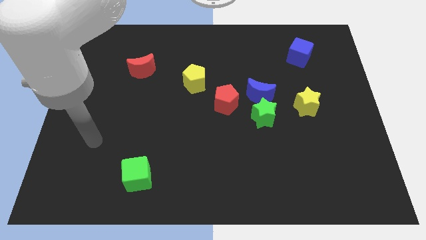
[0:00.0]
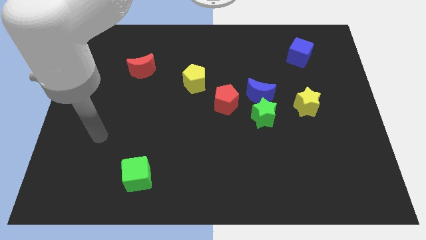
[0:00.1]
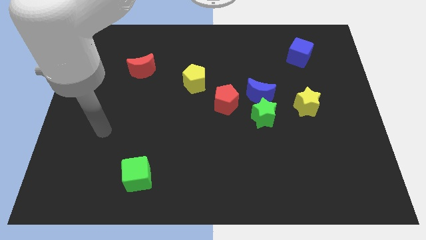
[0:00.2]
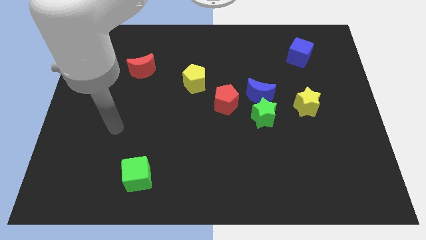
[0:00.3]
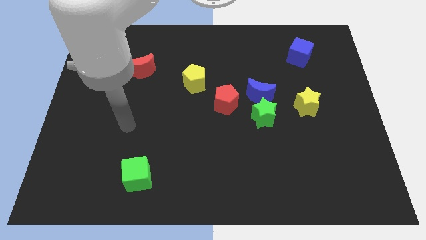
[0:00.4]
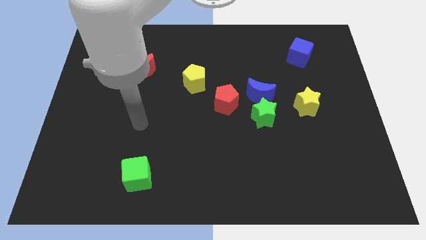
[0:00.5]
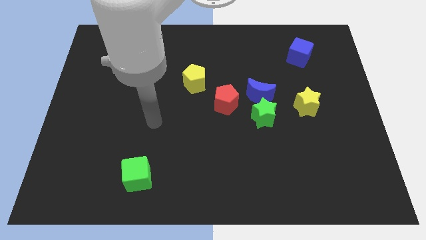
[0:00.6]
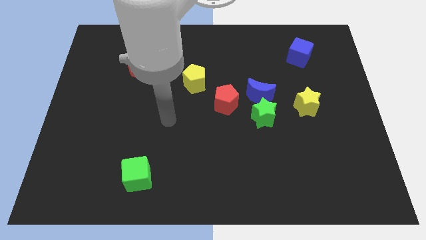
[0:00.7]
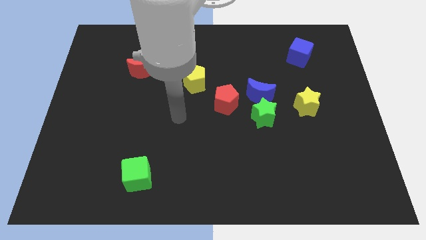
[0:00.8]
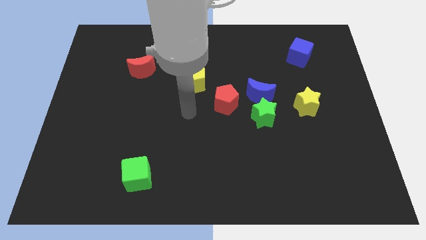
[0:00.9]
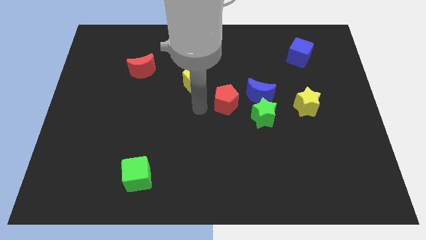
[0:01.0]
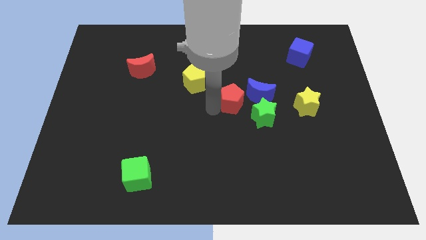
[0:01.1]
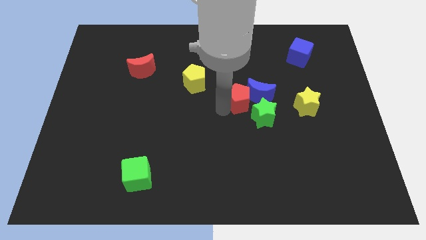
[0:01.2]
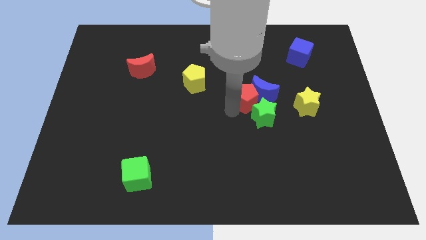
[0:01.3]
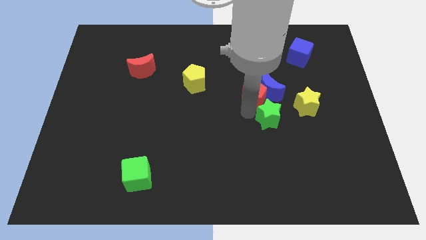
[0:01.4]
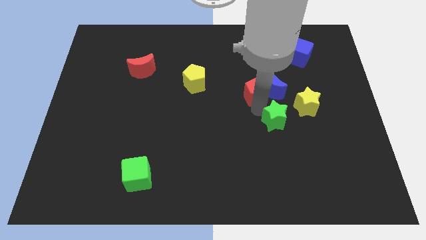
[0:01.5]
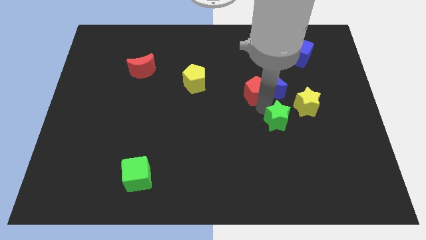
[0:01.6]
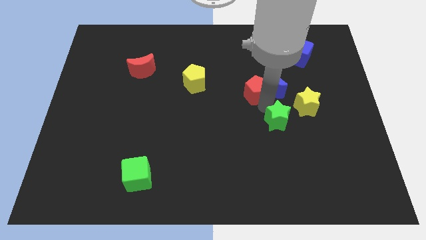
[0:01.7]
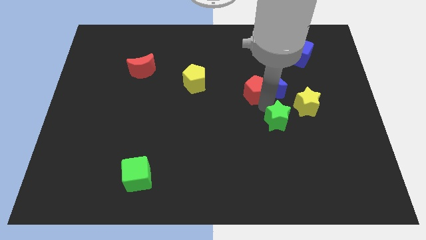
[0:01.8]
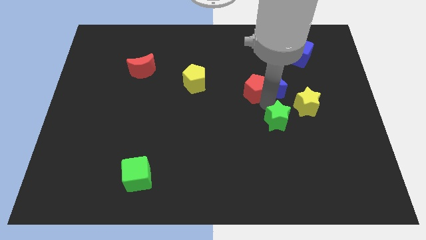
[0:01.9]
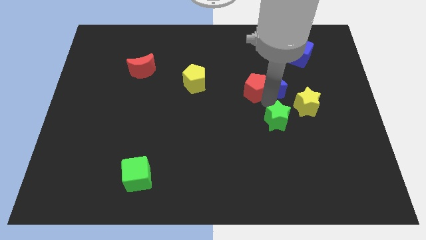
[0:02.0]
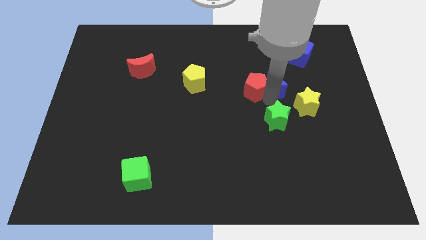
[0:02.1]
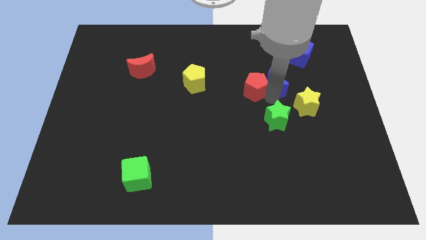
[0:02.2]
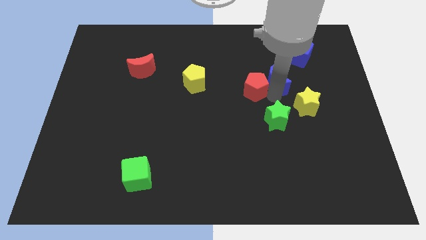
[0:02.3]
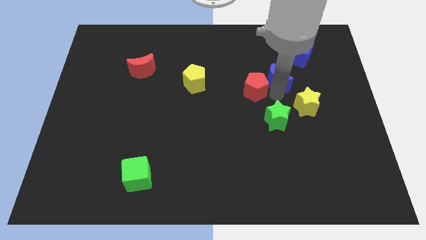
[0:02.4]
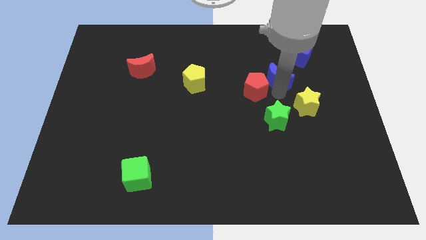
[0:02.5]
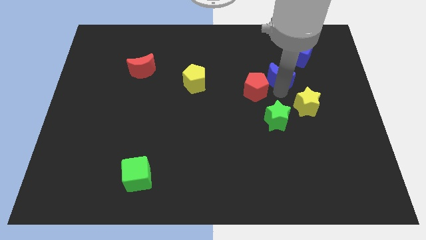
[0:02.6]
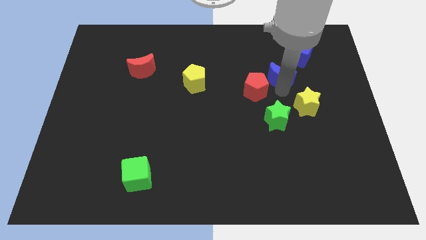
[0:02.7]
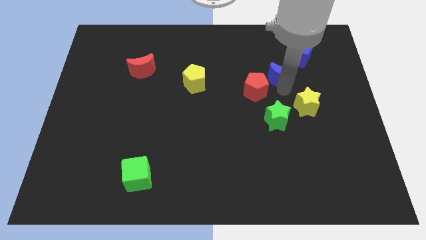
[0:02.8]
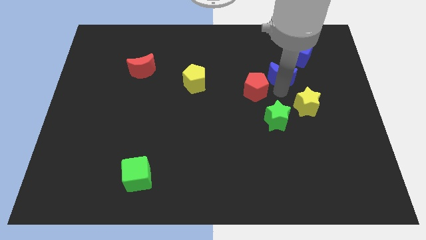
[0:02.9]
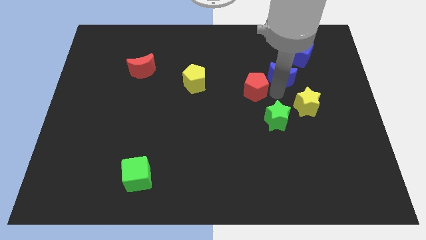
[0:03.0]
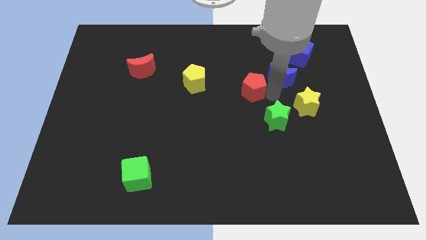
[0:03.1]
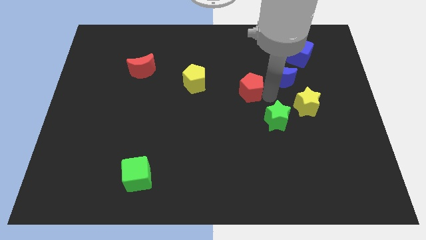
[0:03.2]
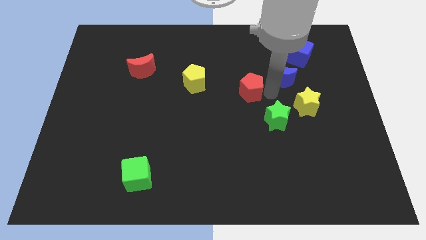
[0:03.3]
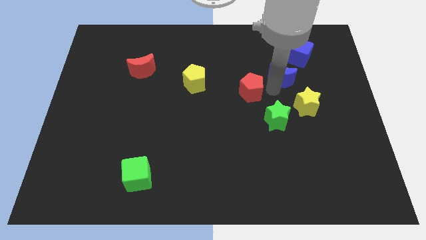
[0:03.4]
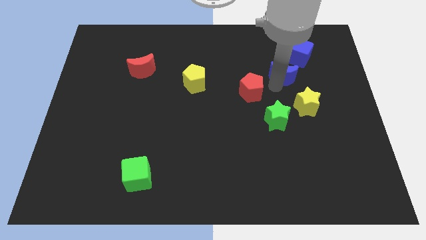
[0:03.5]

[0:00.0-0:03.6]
move the blue moon away from the green star and red pentagon

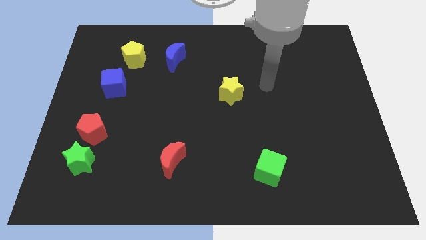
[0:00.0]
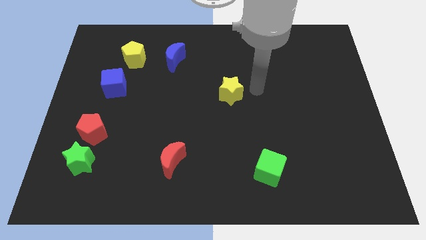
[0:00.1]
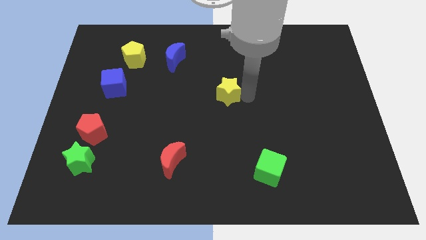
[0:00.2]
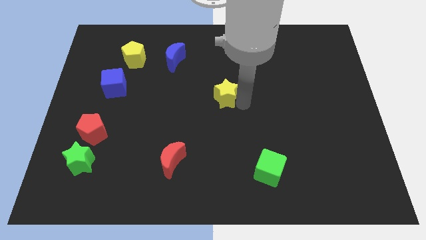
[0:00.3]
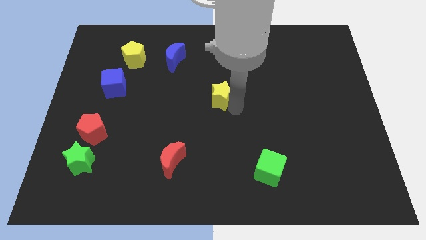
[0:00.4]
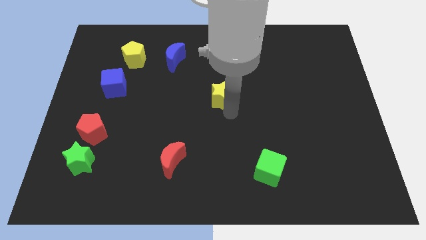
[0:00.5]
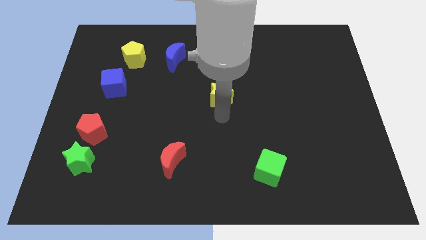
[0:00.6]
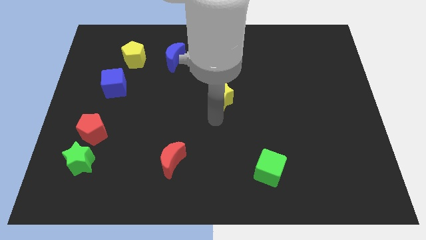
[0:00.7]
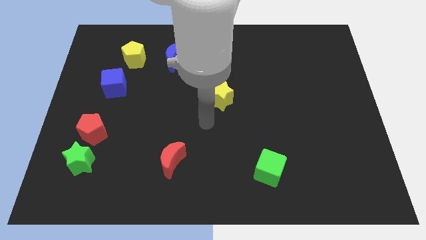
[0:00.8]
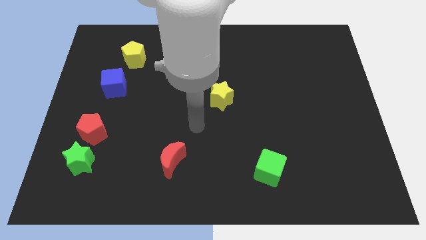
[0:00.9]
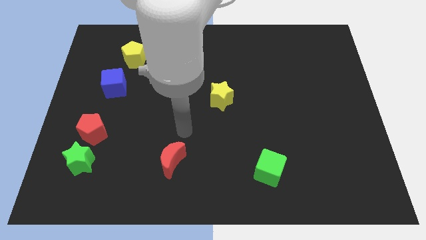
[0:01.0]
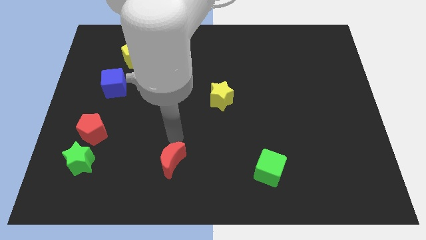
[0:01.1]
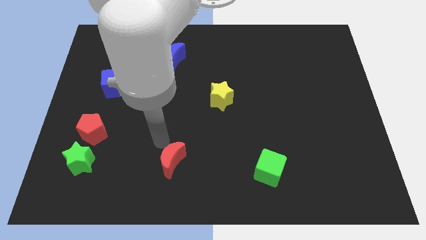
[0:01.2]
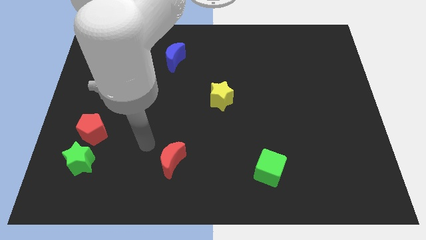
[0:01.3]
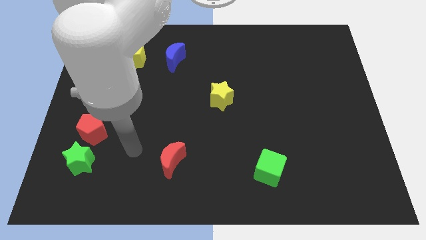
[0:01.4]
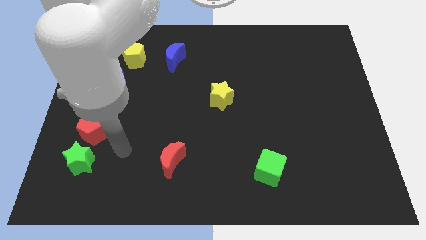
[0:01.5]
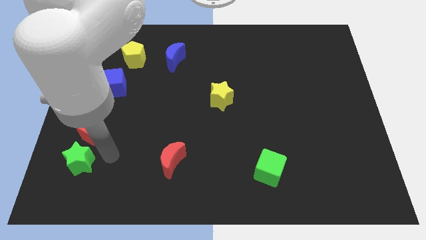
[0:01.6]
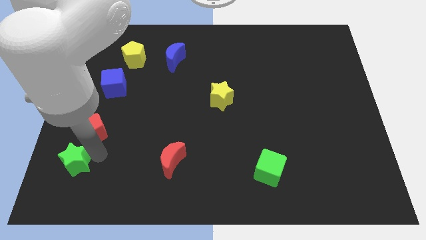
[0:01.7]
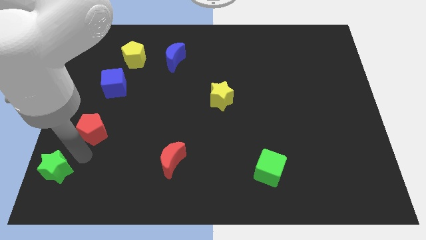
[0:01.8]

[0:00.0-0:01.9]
move the red pentagon away from the green star

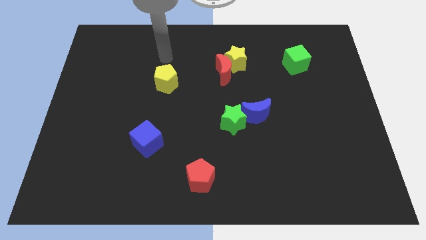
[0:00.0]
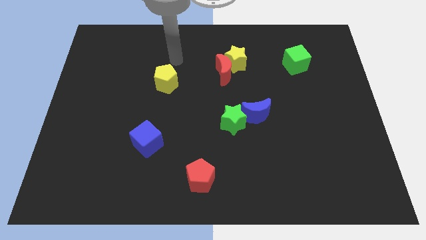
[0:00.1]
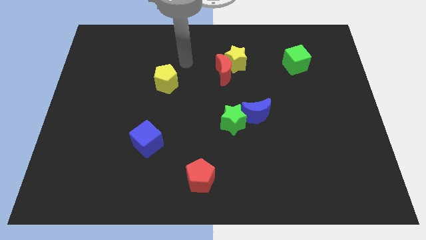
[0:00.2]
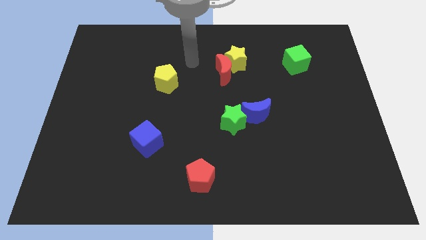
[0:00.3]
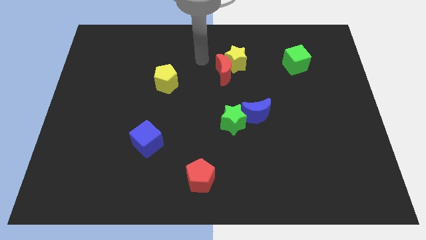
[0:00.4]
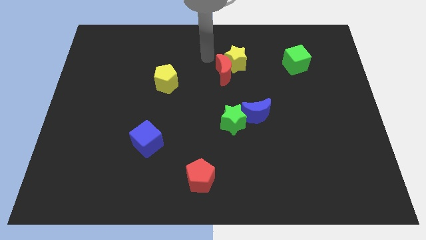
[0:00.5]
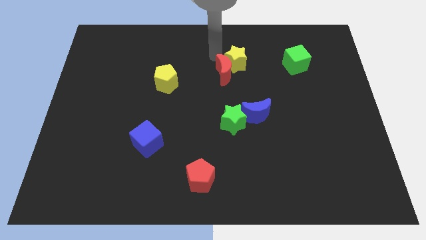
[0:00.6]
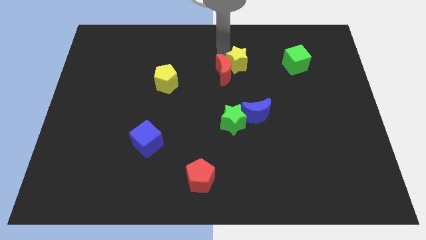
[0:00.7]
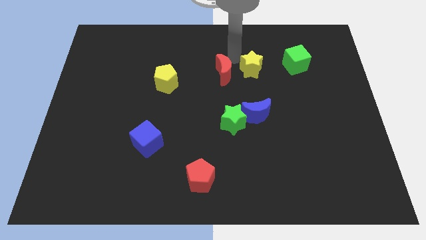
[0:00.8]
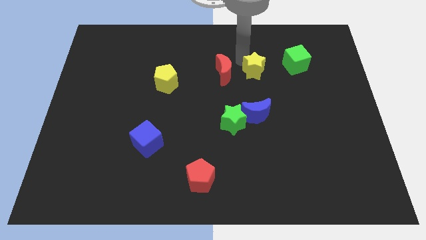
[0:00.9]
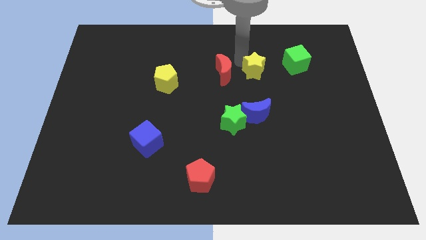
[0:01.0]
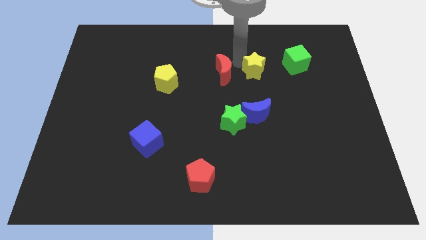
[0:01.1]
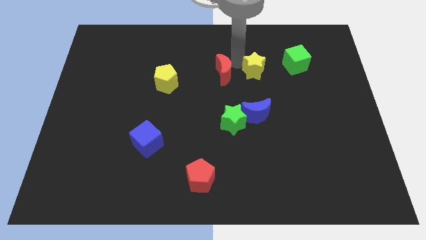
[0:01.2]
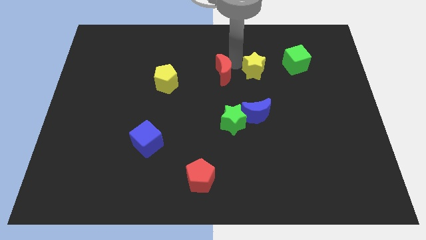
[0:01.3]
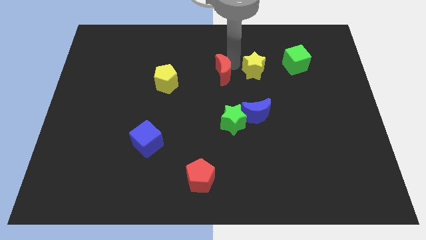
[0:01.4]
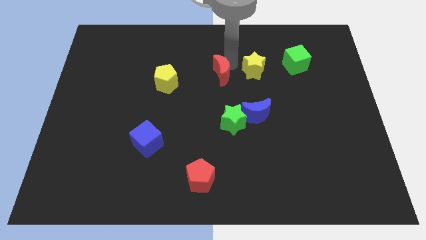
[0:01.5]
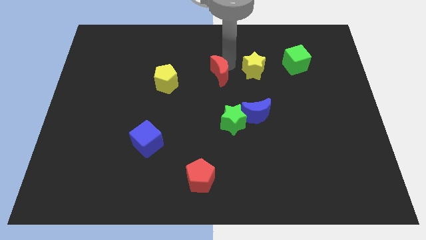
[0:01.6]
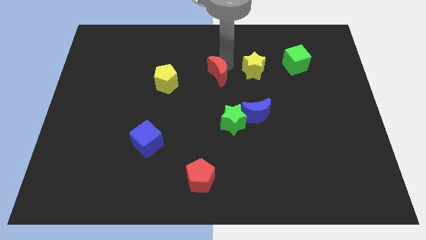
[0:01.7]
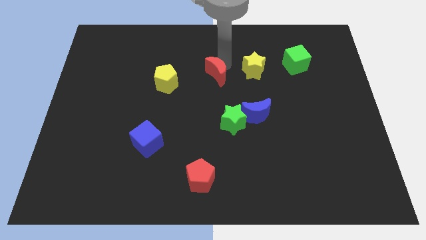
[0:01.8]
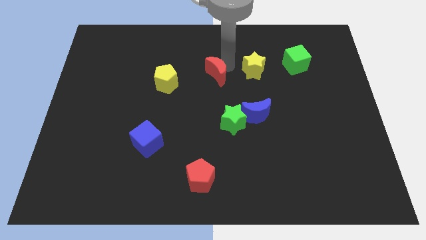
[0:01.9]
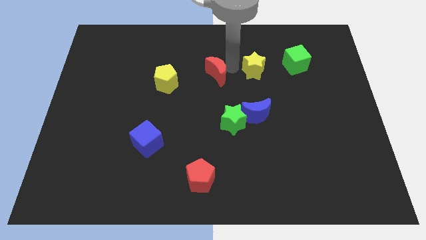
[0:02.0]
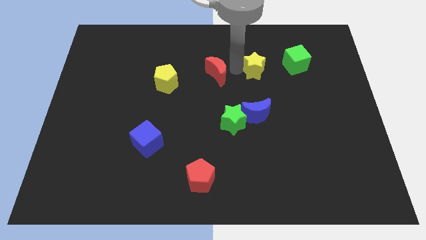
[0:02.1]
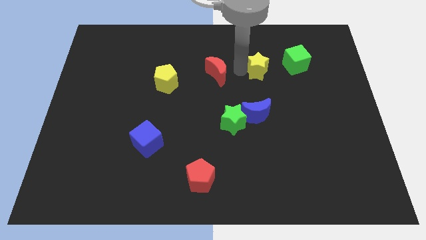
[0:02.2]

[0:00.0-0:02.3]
move the red moon away from the yellow star

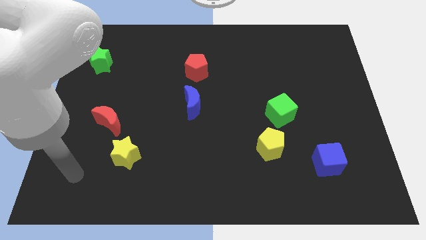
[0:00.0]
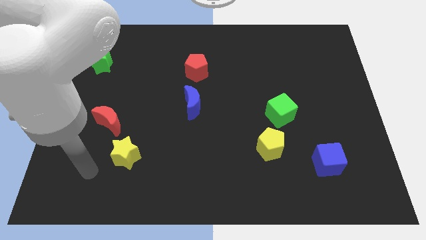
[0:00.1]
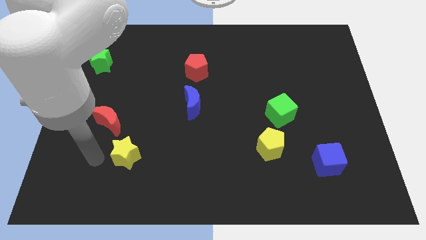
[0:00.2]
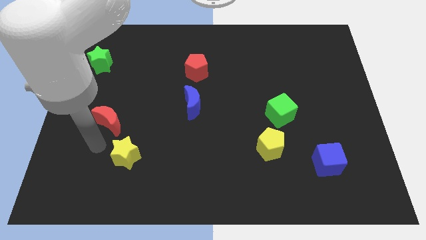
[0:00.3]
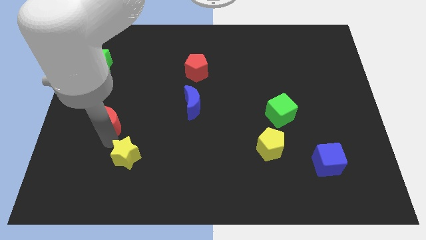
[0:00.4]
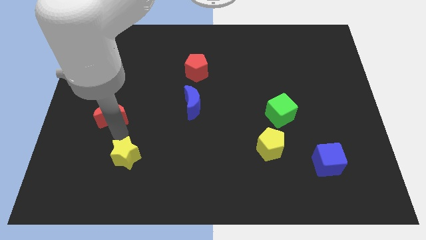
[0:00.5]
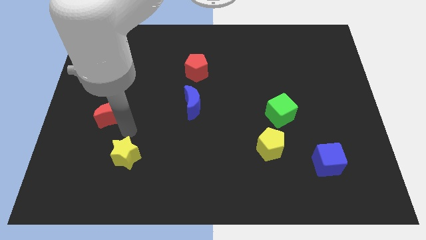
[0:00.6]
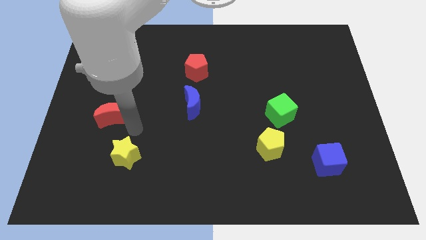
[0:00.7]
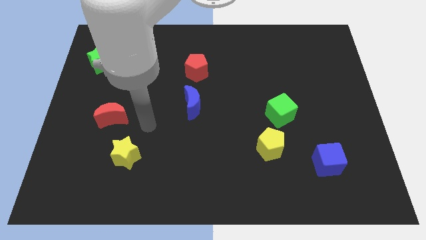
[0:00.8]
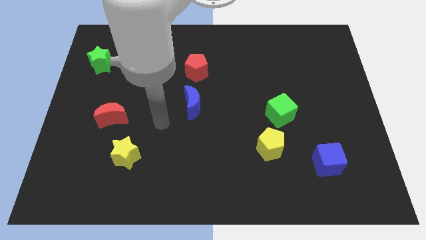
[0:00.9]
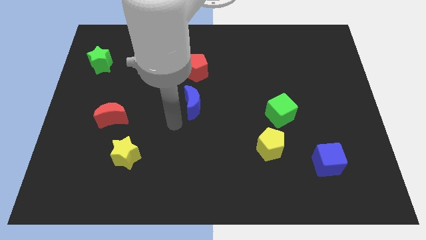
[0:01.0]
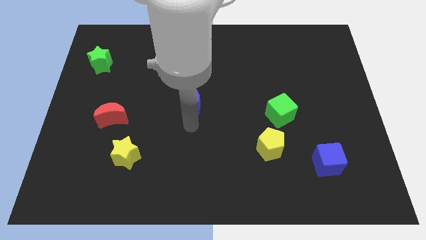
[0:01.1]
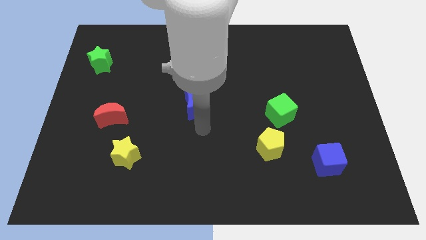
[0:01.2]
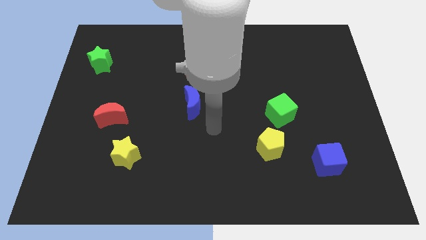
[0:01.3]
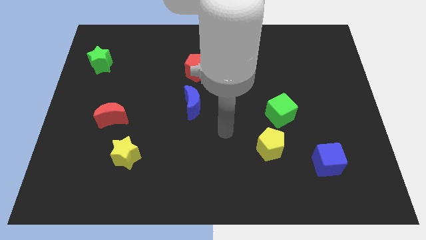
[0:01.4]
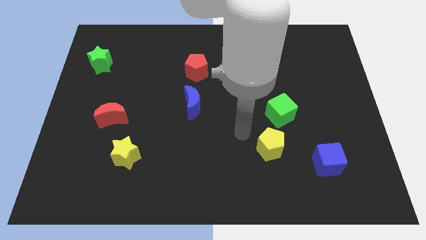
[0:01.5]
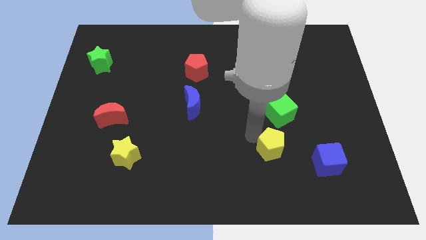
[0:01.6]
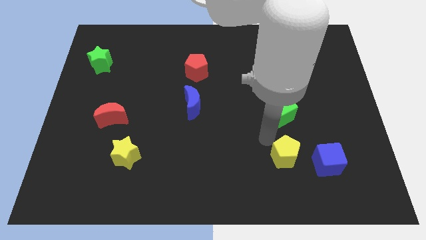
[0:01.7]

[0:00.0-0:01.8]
pull the green cube apart from the yellow pentagon
